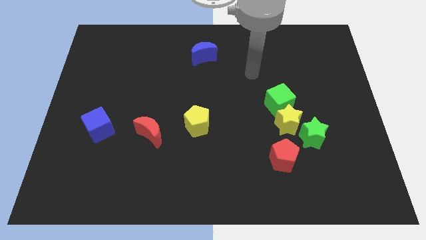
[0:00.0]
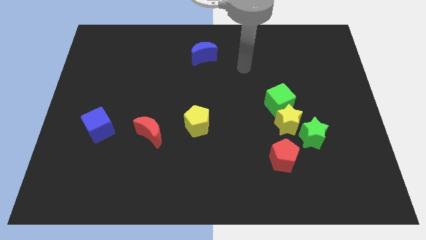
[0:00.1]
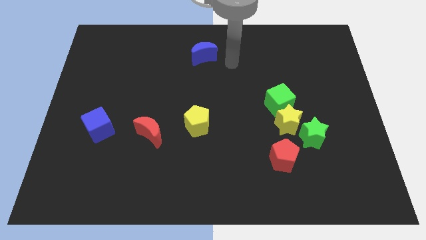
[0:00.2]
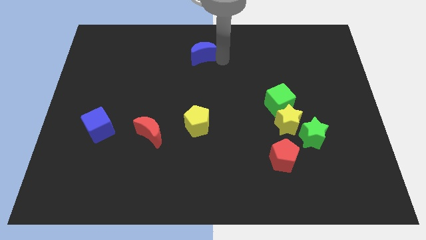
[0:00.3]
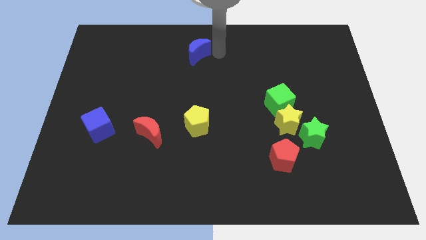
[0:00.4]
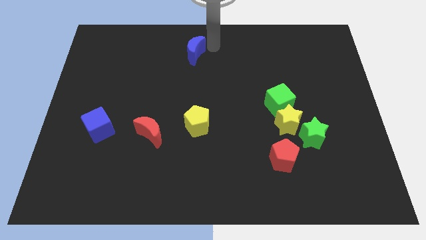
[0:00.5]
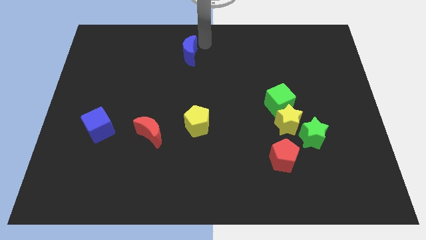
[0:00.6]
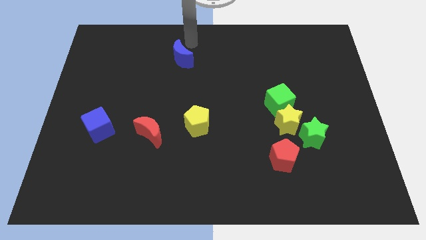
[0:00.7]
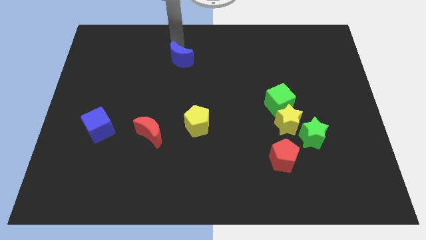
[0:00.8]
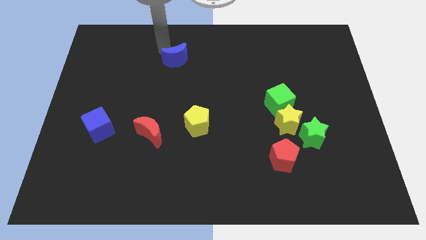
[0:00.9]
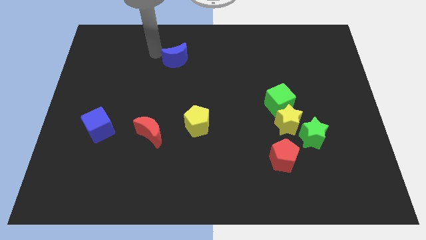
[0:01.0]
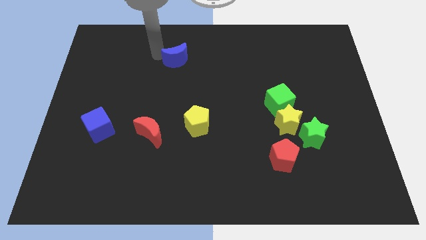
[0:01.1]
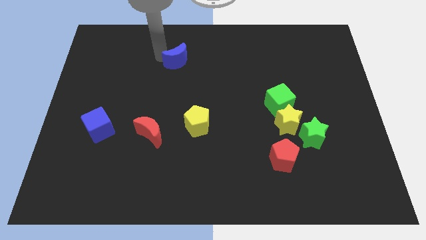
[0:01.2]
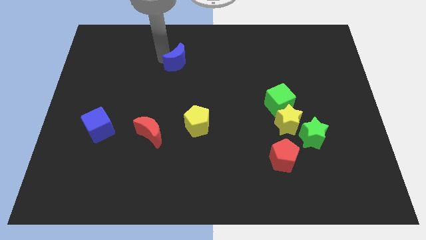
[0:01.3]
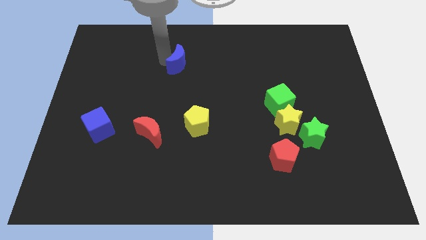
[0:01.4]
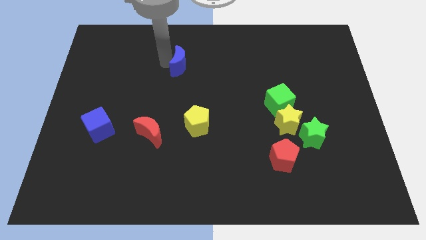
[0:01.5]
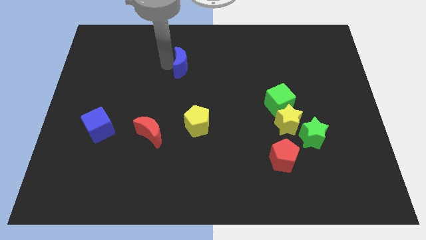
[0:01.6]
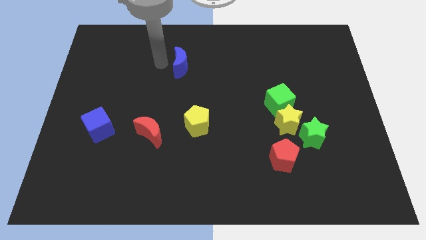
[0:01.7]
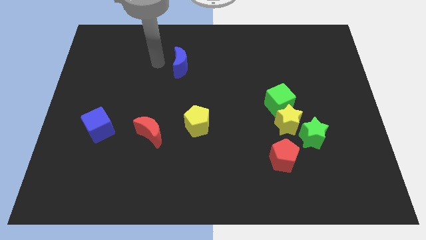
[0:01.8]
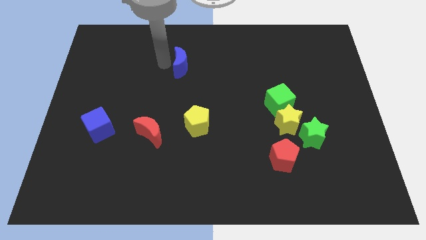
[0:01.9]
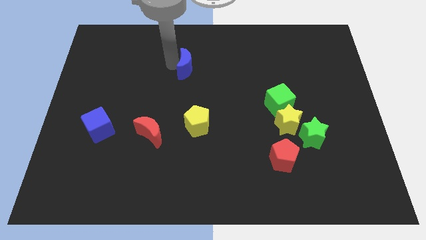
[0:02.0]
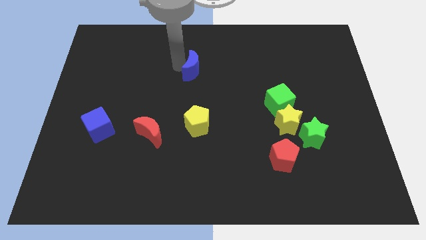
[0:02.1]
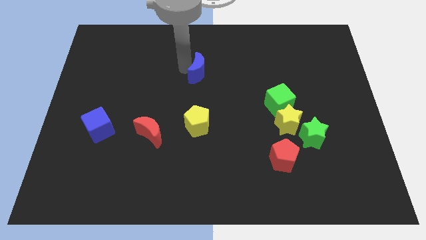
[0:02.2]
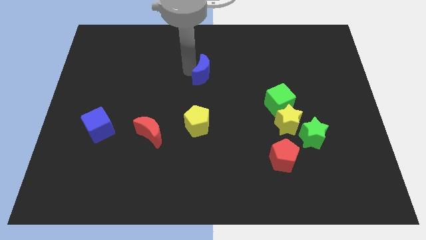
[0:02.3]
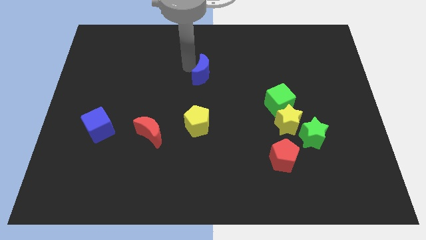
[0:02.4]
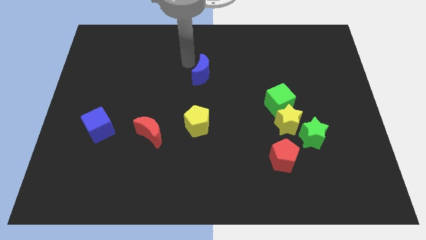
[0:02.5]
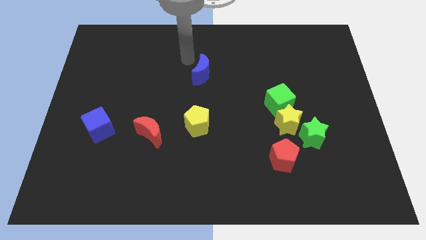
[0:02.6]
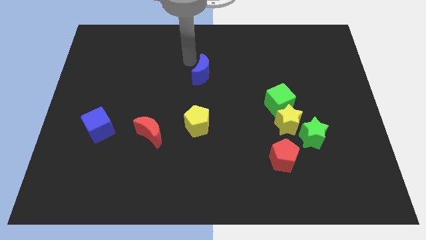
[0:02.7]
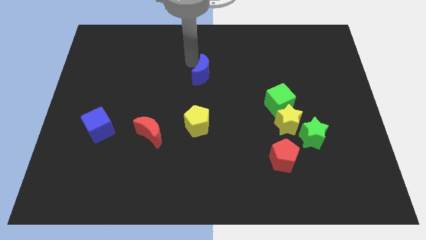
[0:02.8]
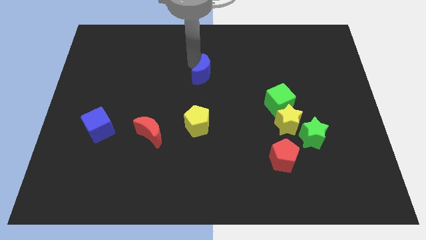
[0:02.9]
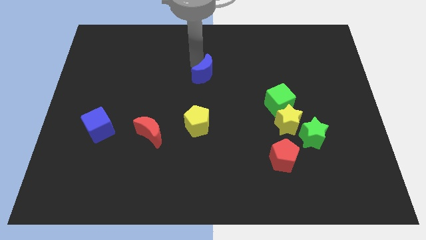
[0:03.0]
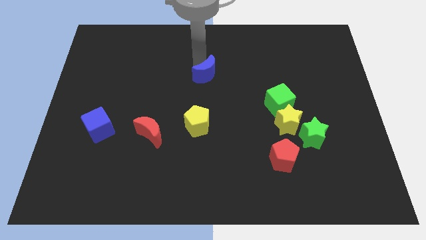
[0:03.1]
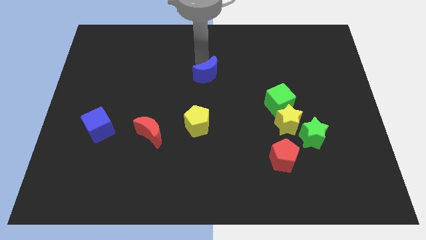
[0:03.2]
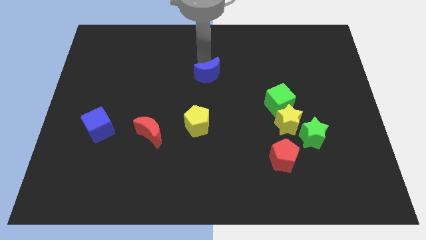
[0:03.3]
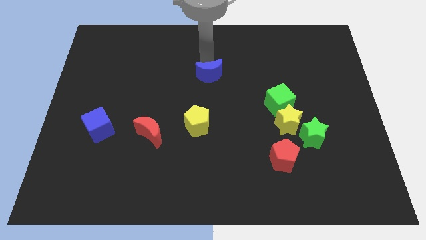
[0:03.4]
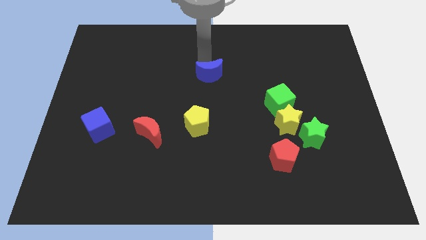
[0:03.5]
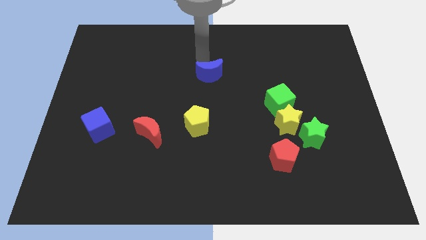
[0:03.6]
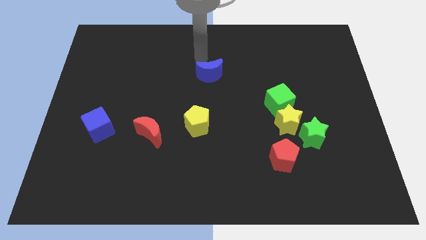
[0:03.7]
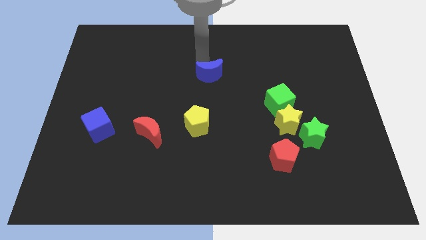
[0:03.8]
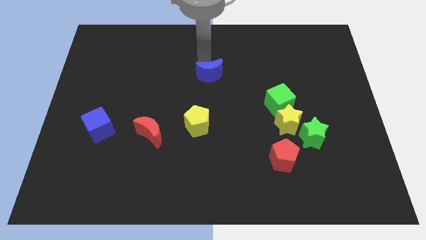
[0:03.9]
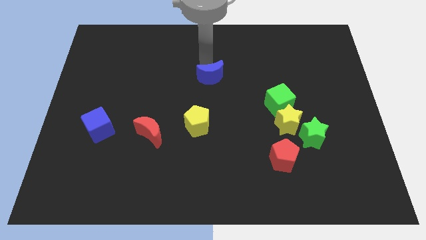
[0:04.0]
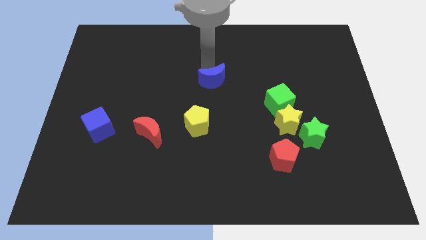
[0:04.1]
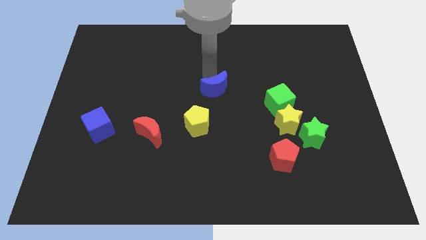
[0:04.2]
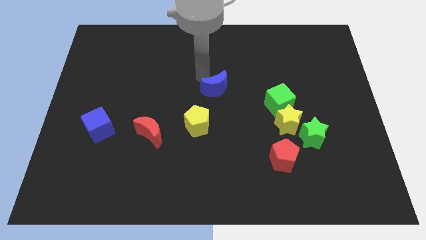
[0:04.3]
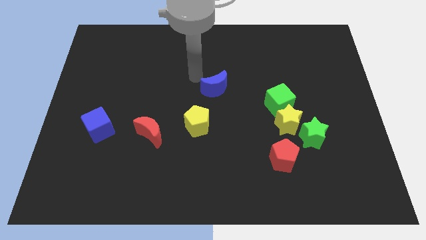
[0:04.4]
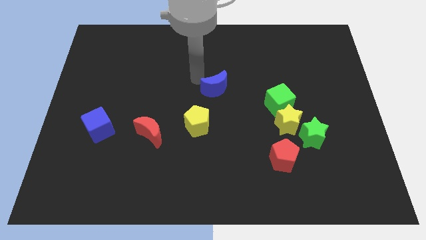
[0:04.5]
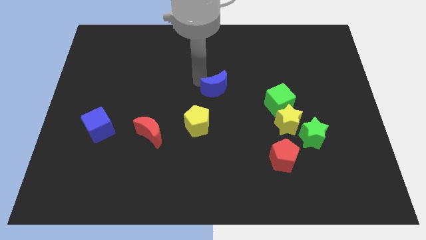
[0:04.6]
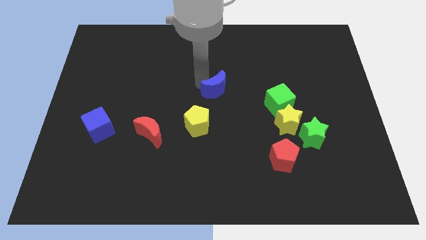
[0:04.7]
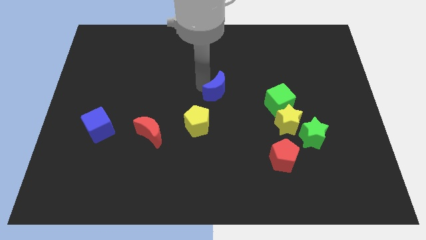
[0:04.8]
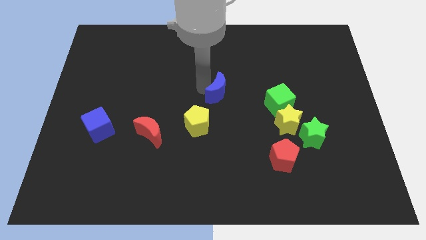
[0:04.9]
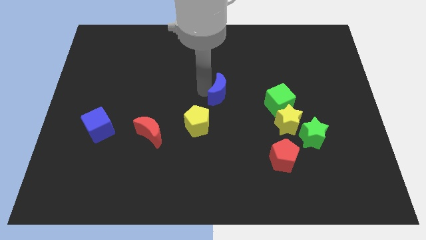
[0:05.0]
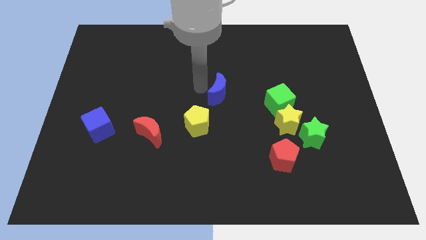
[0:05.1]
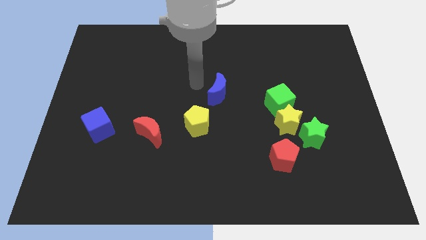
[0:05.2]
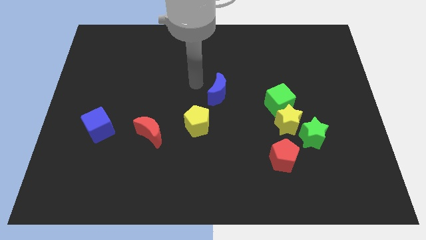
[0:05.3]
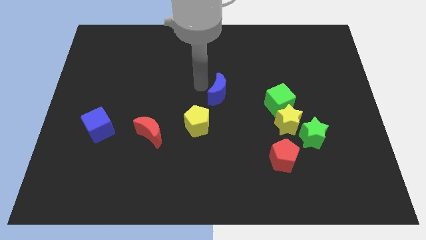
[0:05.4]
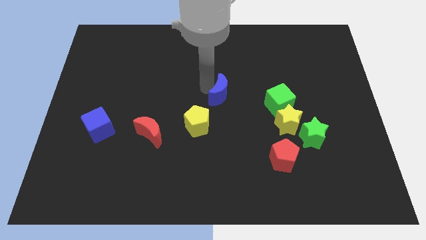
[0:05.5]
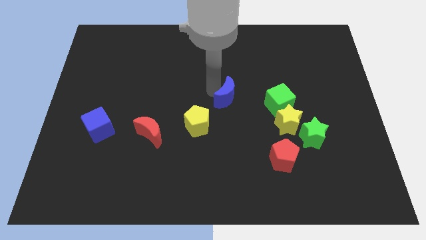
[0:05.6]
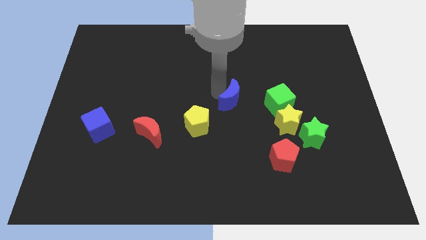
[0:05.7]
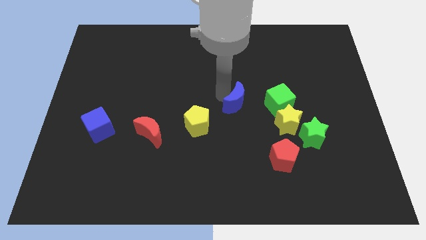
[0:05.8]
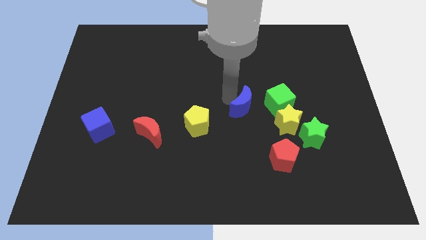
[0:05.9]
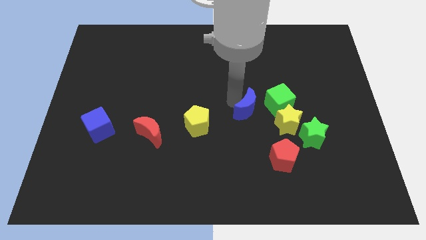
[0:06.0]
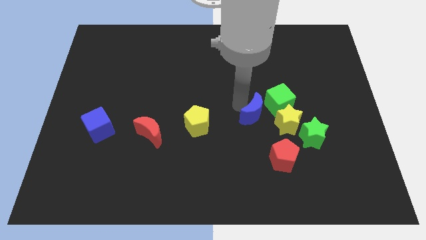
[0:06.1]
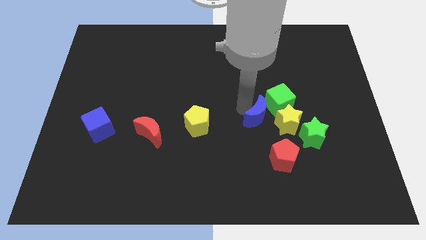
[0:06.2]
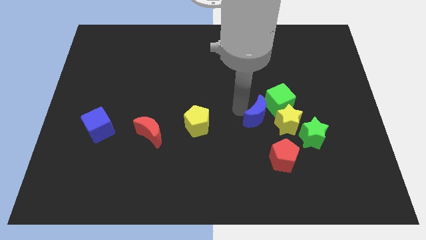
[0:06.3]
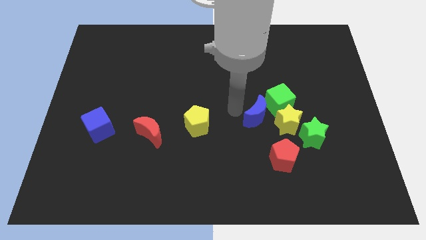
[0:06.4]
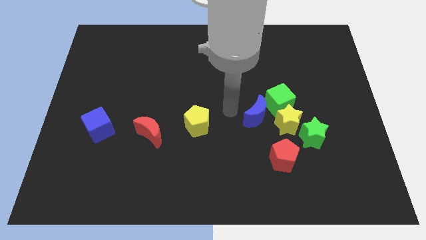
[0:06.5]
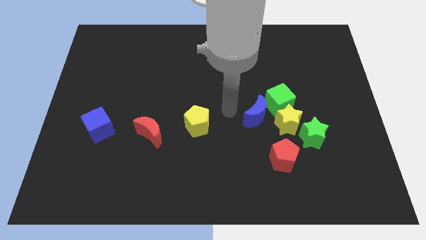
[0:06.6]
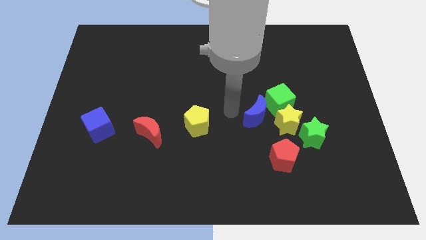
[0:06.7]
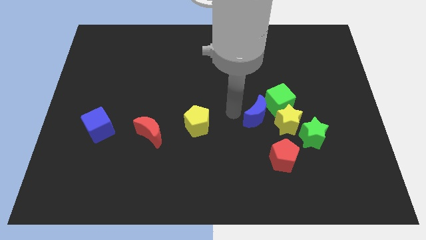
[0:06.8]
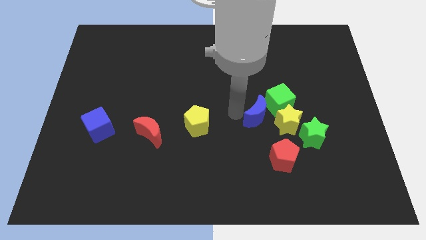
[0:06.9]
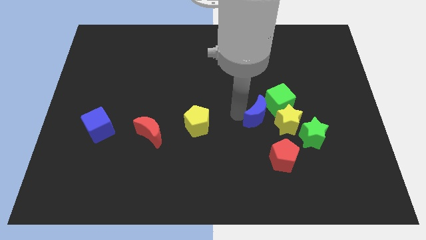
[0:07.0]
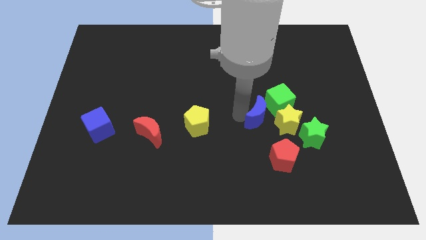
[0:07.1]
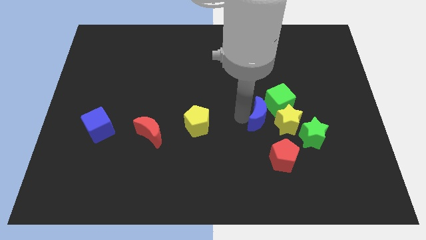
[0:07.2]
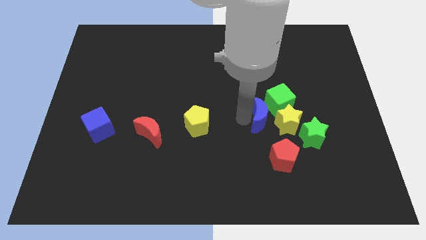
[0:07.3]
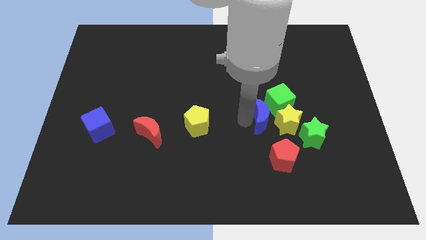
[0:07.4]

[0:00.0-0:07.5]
push the blue moon next to the yellow star

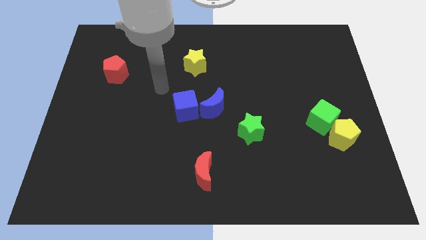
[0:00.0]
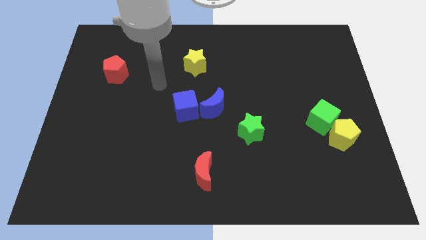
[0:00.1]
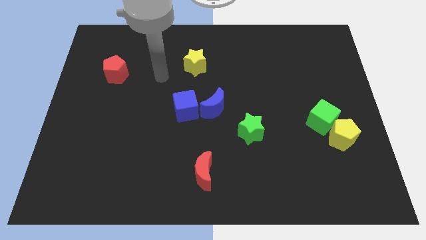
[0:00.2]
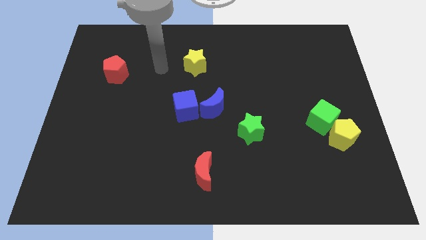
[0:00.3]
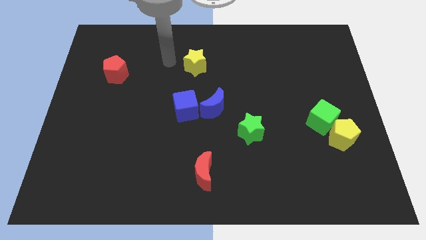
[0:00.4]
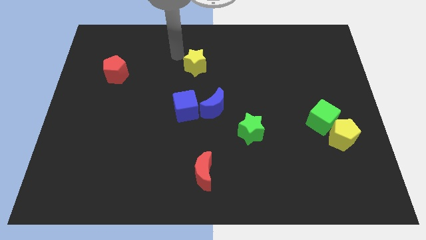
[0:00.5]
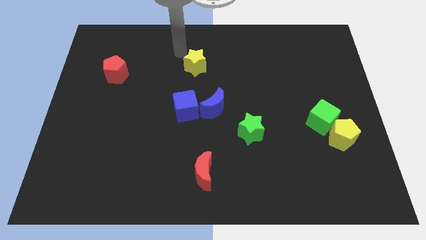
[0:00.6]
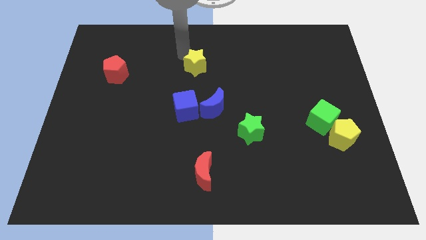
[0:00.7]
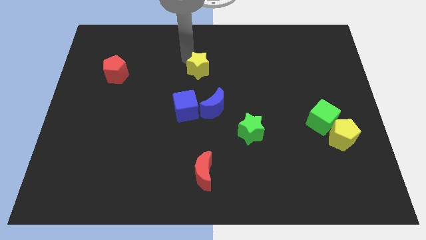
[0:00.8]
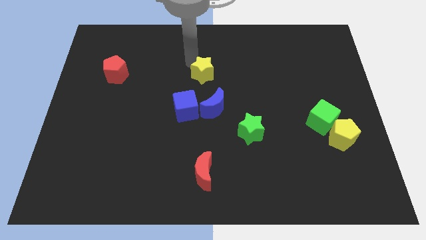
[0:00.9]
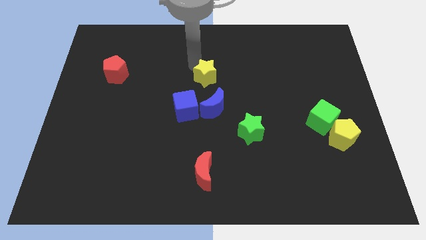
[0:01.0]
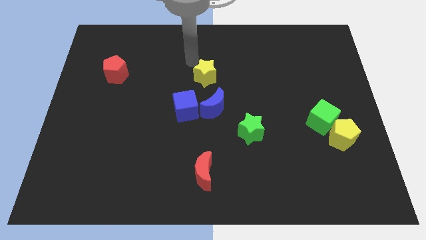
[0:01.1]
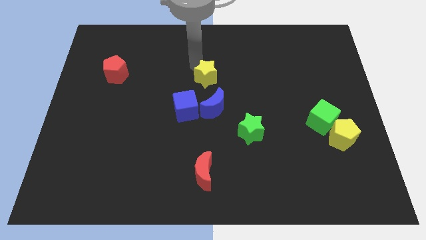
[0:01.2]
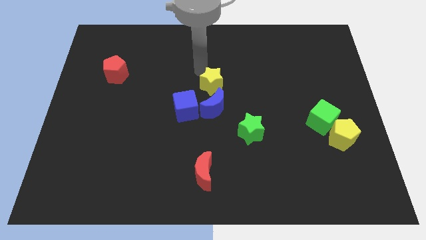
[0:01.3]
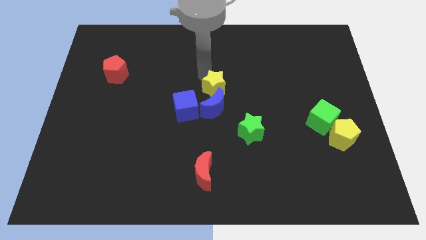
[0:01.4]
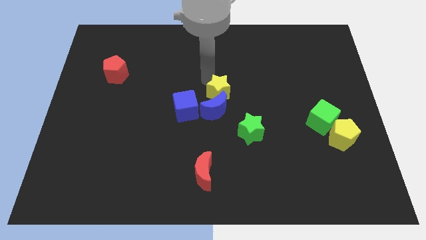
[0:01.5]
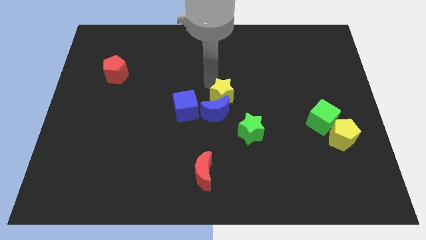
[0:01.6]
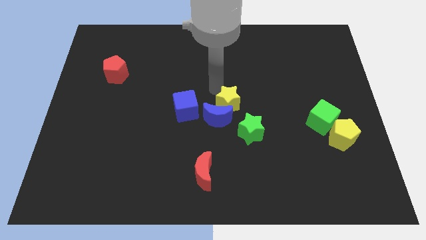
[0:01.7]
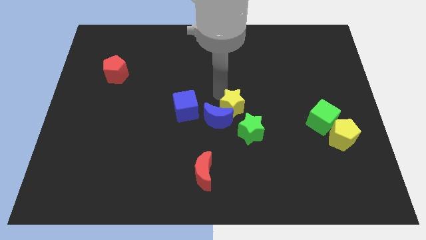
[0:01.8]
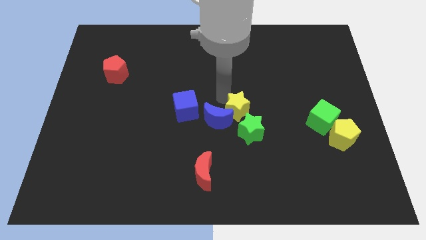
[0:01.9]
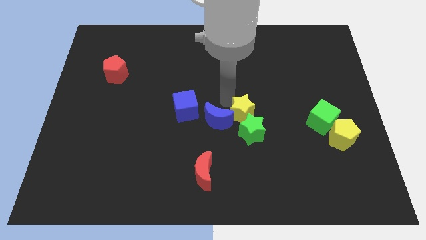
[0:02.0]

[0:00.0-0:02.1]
put the yellow star close to the green star
